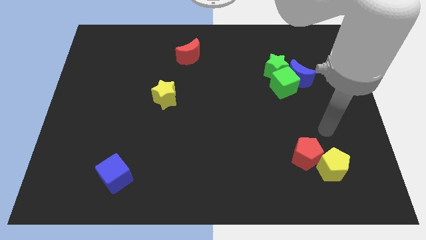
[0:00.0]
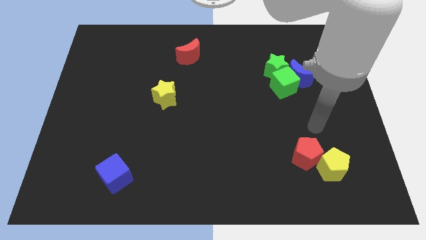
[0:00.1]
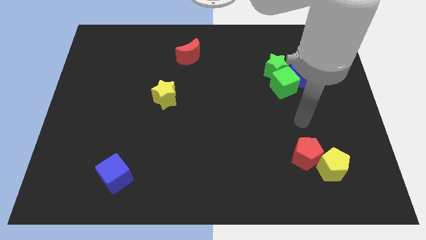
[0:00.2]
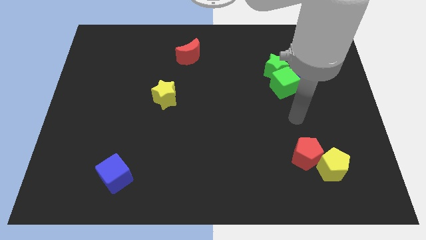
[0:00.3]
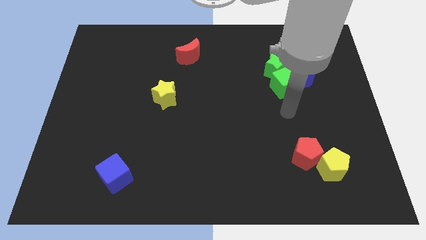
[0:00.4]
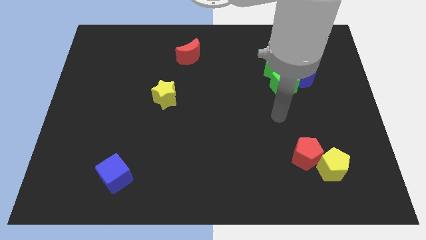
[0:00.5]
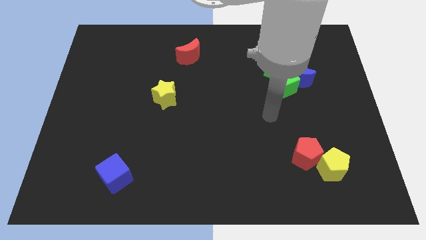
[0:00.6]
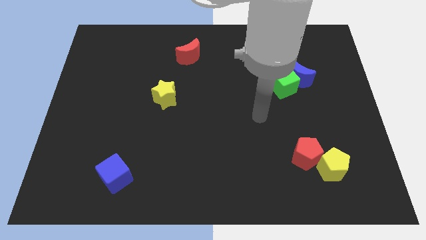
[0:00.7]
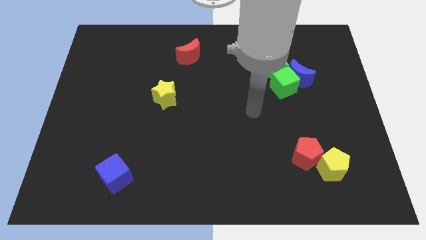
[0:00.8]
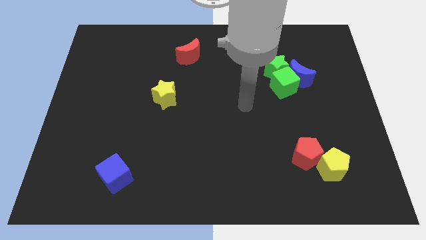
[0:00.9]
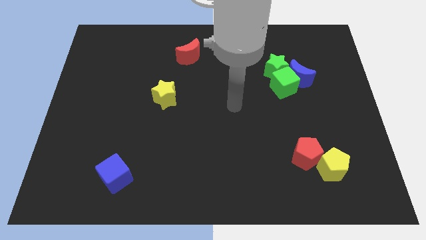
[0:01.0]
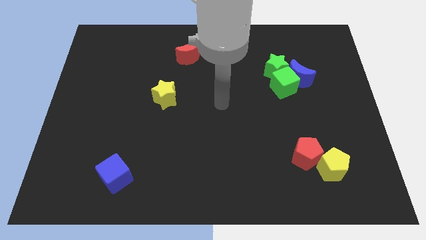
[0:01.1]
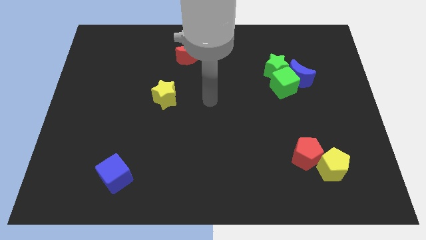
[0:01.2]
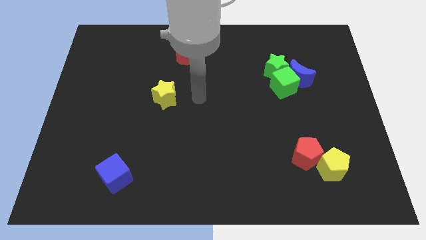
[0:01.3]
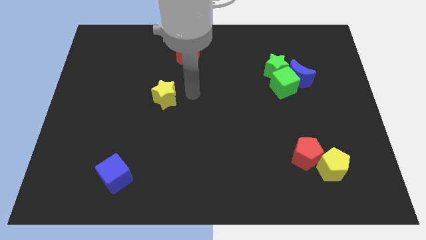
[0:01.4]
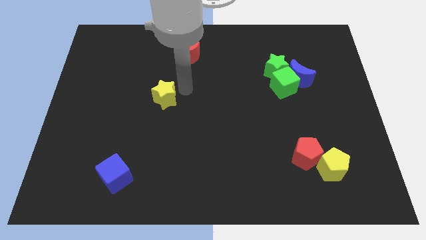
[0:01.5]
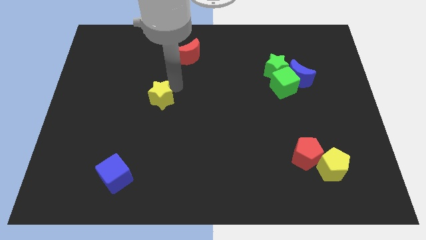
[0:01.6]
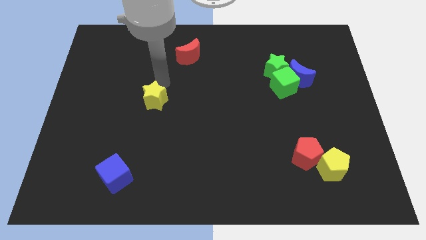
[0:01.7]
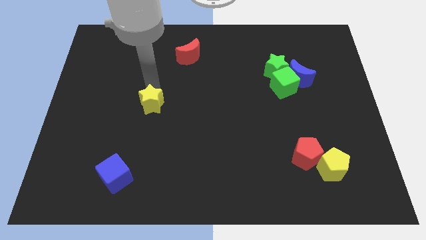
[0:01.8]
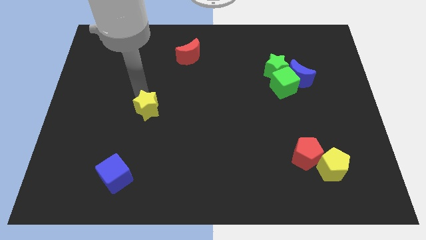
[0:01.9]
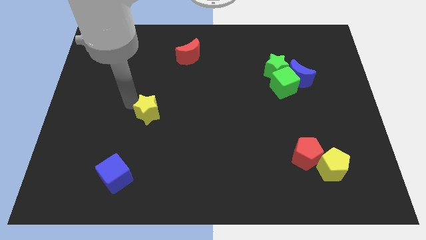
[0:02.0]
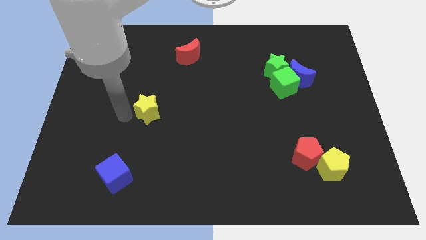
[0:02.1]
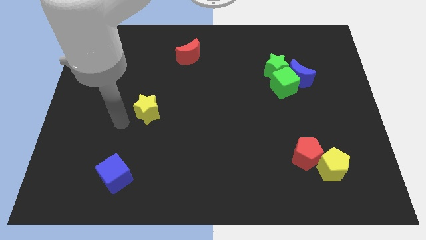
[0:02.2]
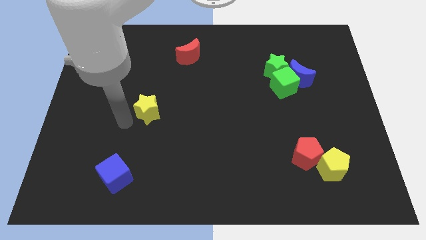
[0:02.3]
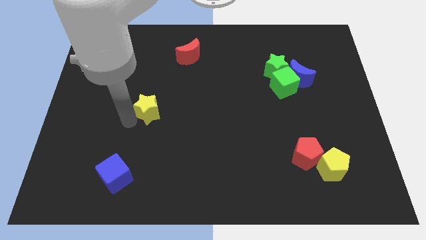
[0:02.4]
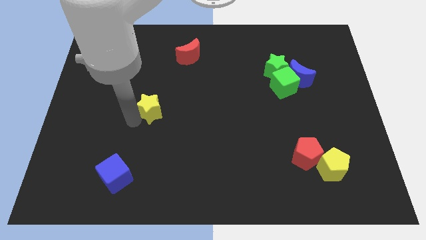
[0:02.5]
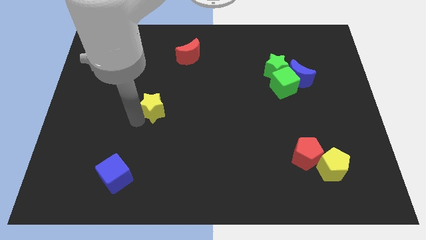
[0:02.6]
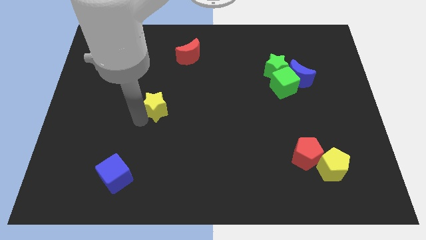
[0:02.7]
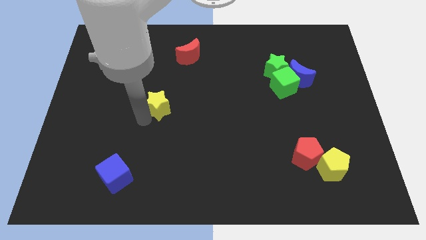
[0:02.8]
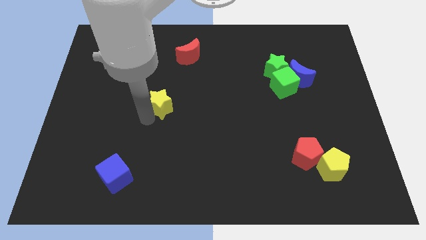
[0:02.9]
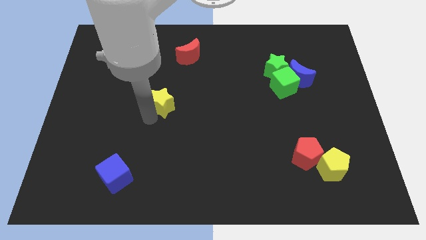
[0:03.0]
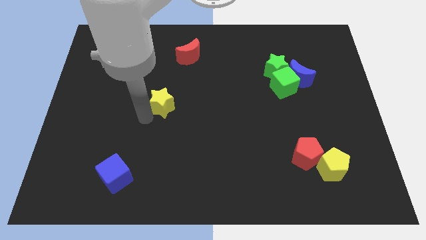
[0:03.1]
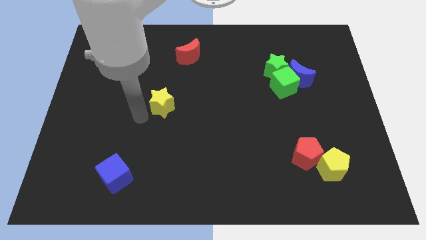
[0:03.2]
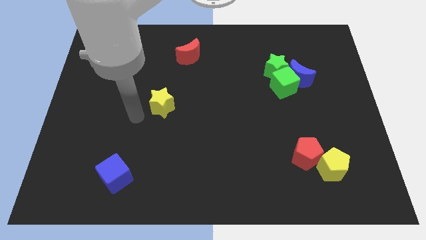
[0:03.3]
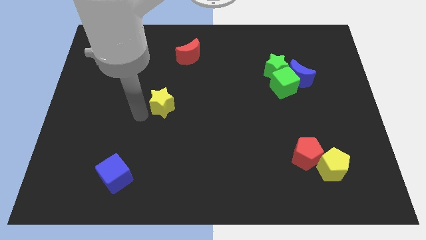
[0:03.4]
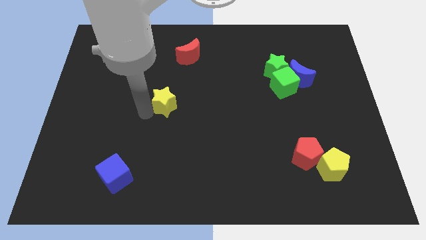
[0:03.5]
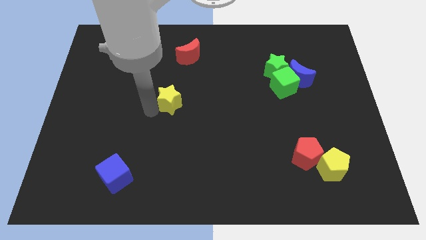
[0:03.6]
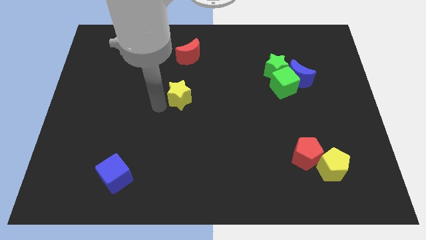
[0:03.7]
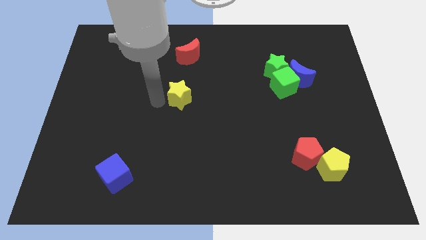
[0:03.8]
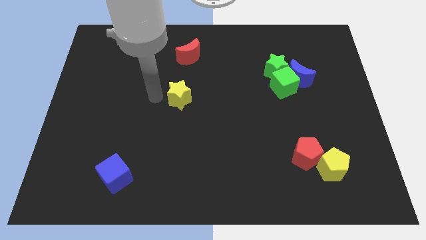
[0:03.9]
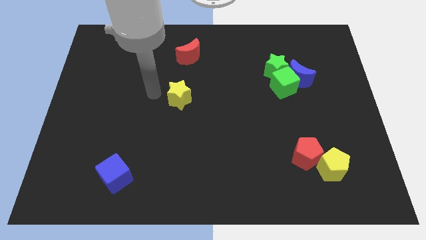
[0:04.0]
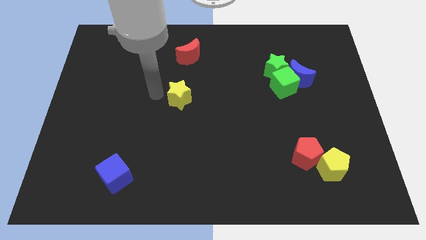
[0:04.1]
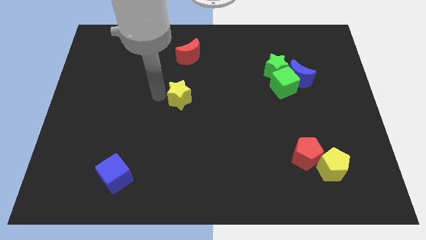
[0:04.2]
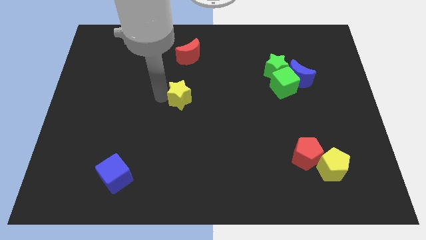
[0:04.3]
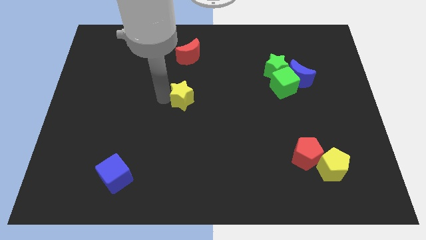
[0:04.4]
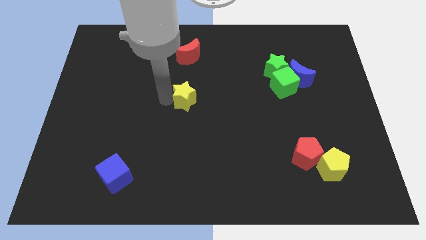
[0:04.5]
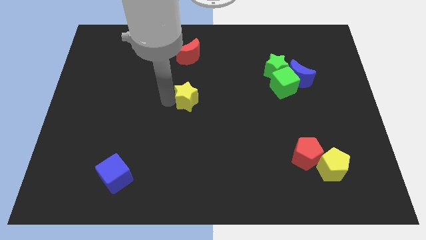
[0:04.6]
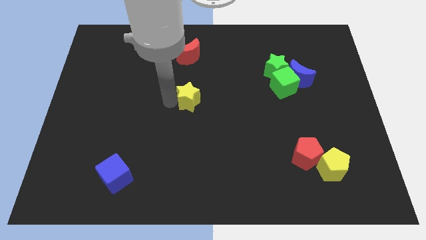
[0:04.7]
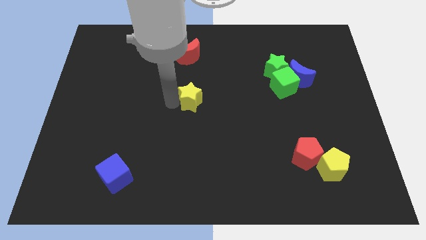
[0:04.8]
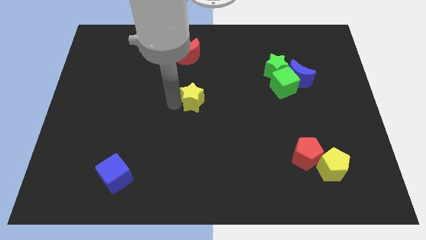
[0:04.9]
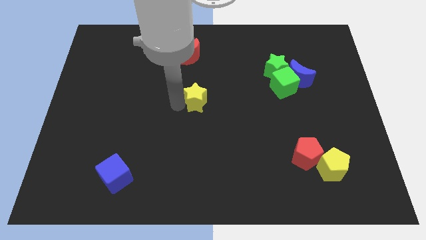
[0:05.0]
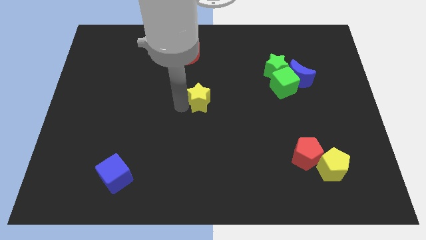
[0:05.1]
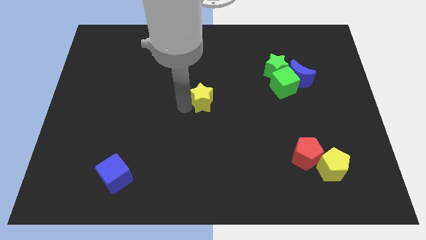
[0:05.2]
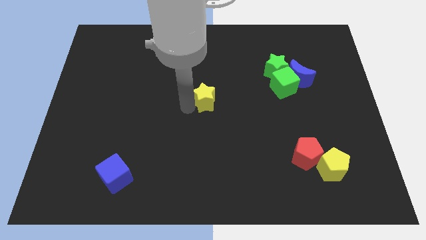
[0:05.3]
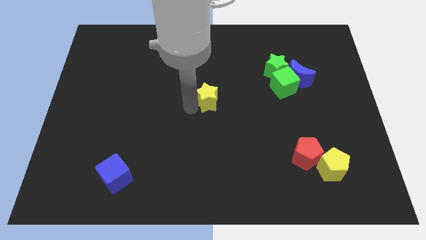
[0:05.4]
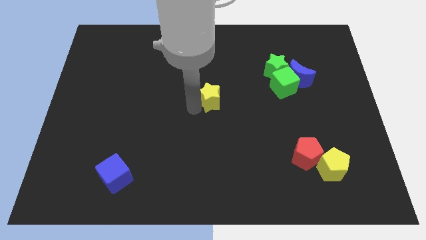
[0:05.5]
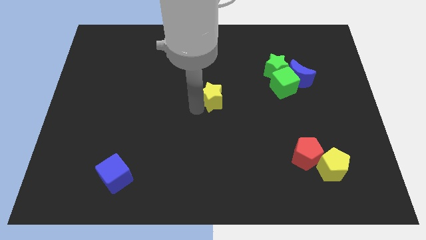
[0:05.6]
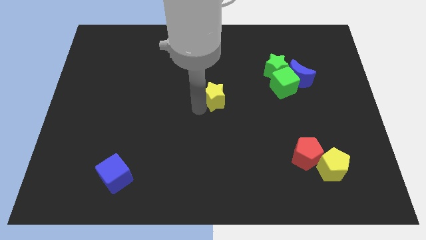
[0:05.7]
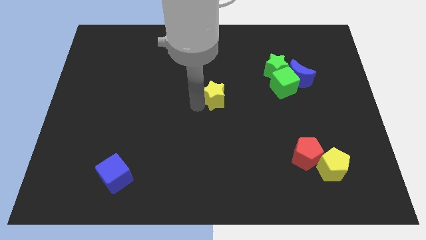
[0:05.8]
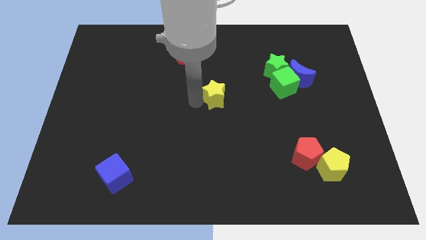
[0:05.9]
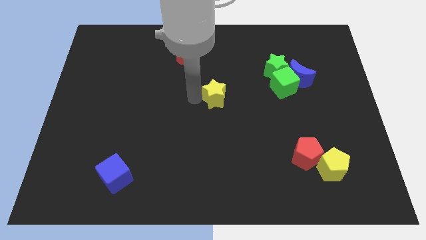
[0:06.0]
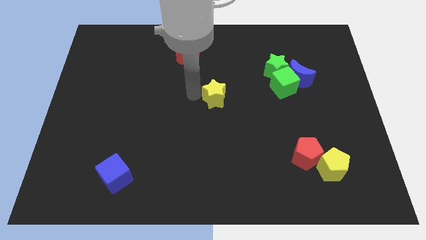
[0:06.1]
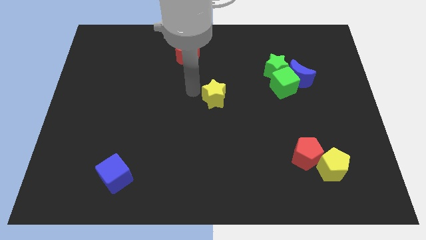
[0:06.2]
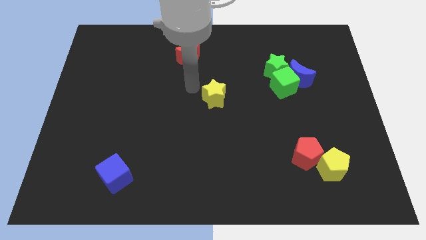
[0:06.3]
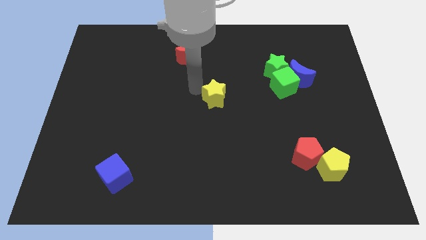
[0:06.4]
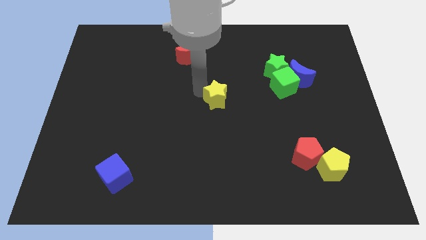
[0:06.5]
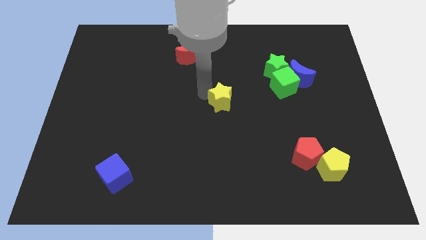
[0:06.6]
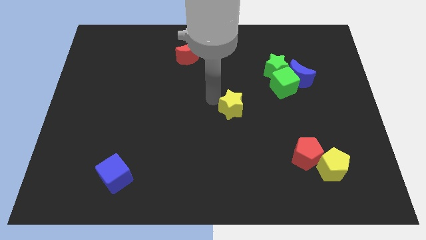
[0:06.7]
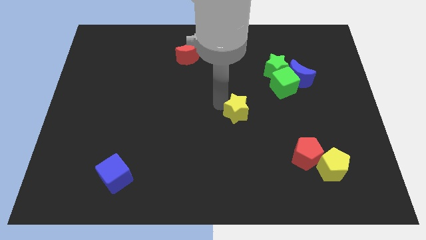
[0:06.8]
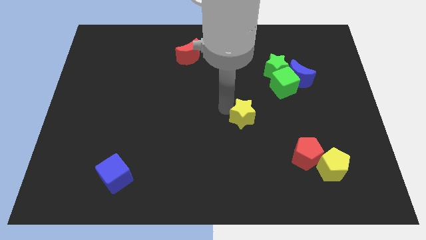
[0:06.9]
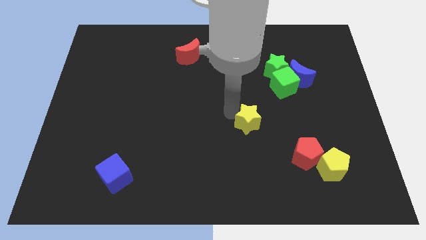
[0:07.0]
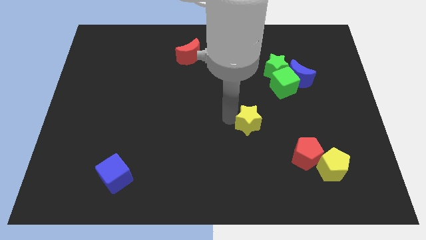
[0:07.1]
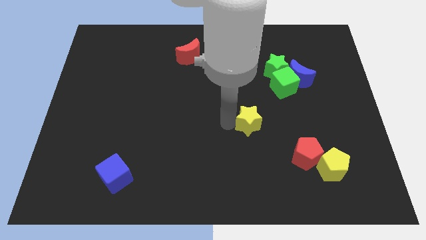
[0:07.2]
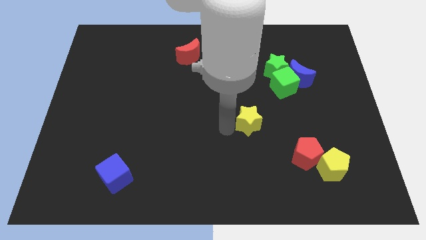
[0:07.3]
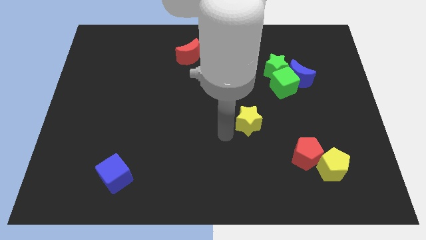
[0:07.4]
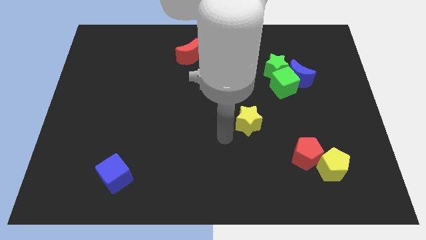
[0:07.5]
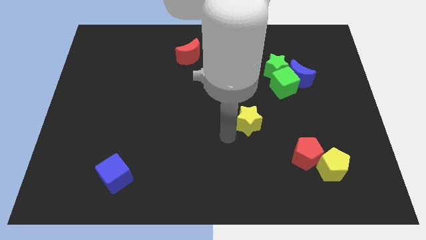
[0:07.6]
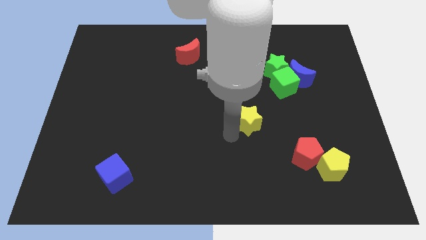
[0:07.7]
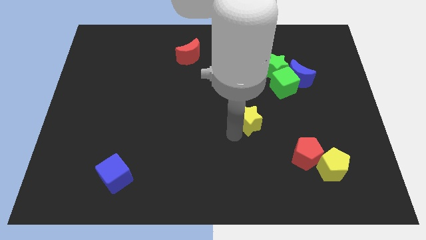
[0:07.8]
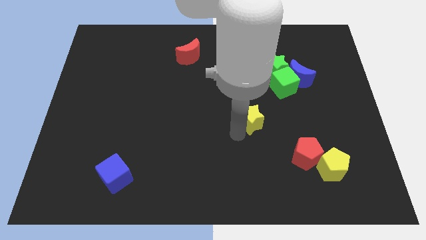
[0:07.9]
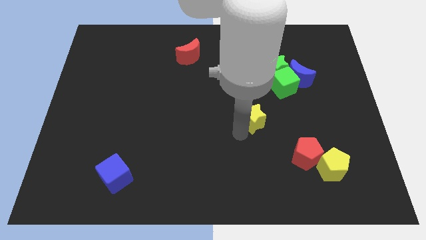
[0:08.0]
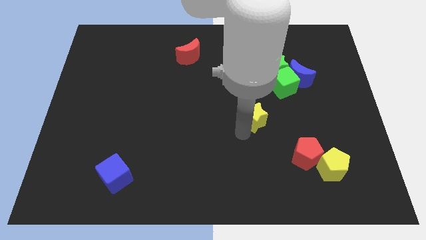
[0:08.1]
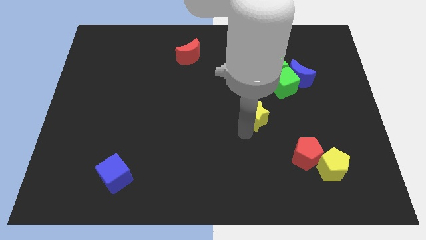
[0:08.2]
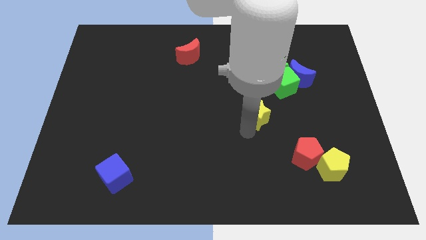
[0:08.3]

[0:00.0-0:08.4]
move the yellow star right
